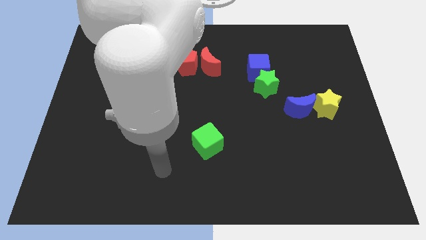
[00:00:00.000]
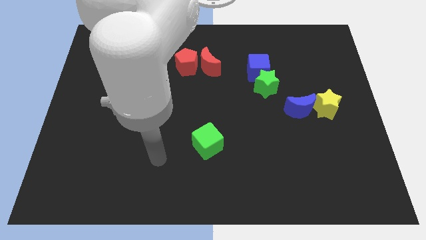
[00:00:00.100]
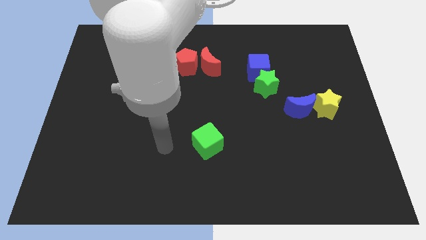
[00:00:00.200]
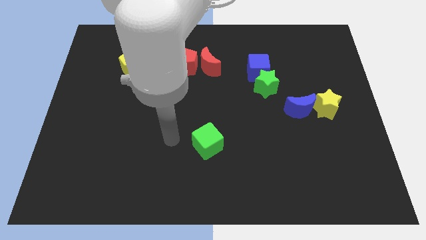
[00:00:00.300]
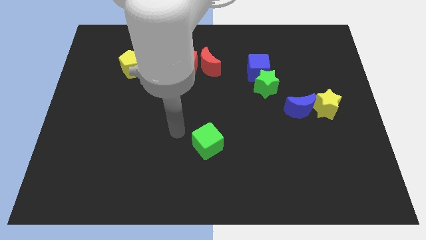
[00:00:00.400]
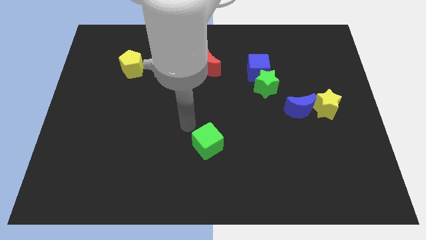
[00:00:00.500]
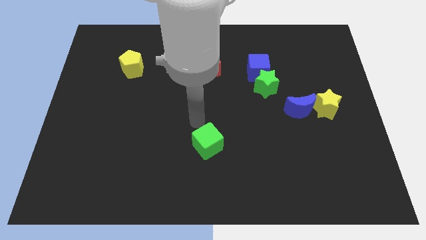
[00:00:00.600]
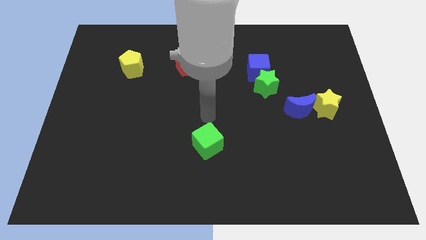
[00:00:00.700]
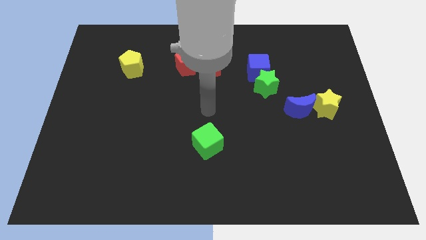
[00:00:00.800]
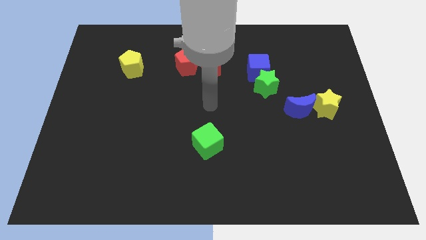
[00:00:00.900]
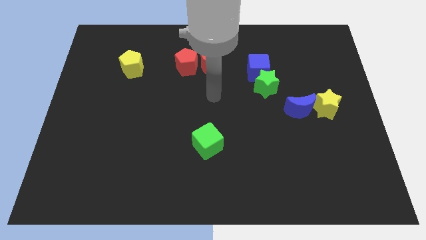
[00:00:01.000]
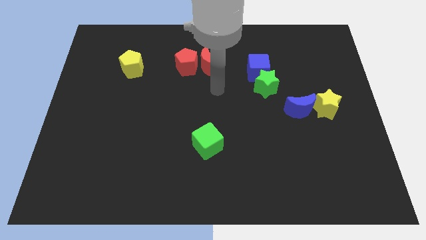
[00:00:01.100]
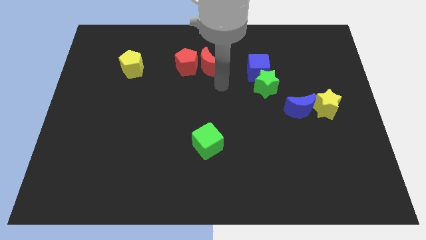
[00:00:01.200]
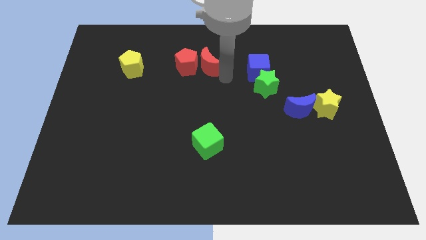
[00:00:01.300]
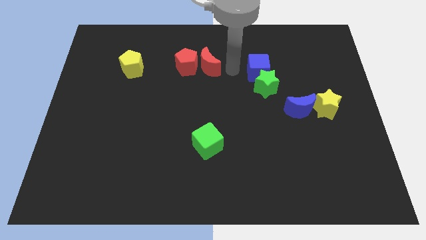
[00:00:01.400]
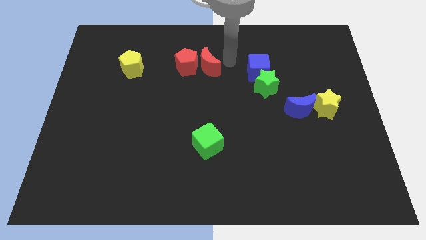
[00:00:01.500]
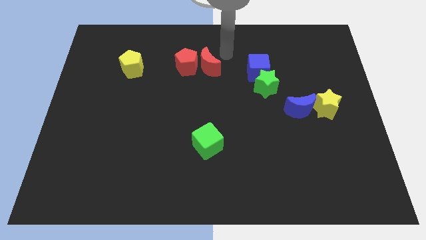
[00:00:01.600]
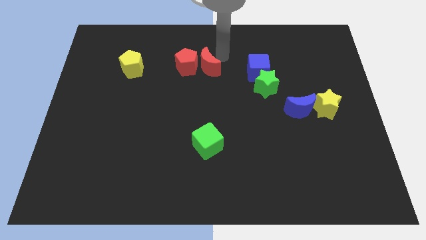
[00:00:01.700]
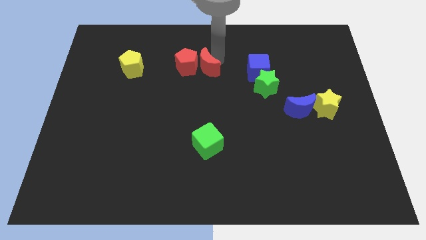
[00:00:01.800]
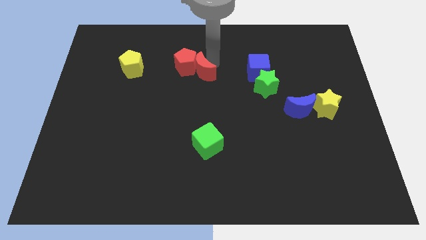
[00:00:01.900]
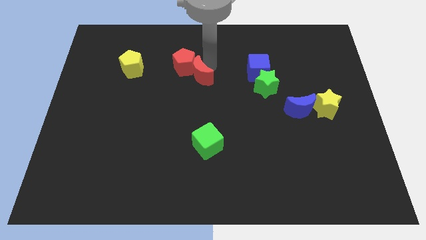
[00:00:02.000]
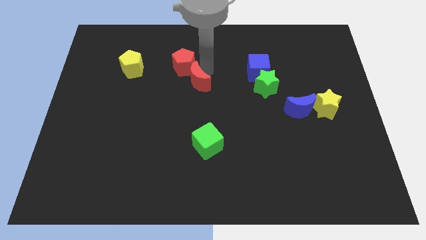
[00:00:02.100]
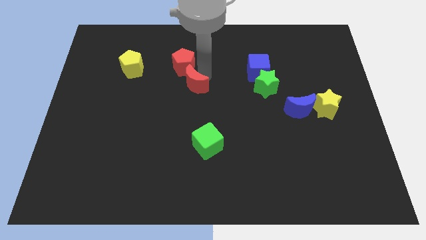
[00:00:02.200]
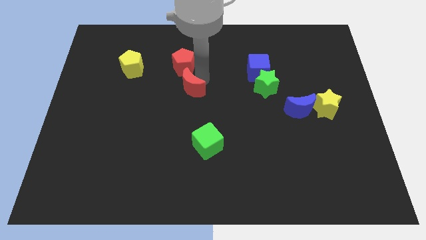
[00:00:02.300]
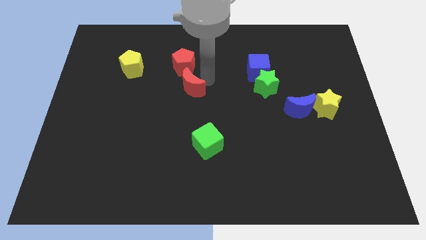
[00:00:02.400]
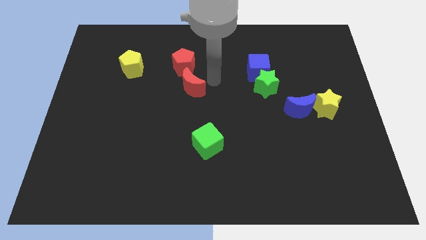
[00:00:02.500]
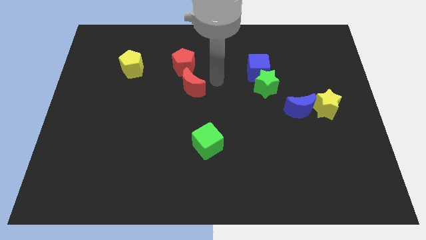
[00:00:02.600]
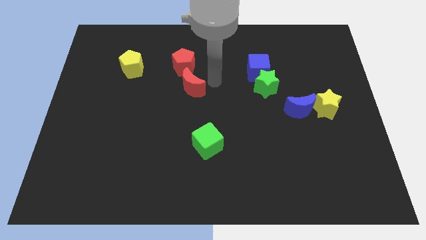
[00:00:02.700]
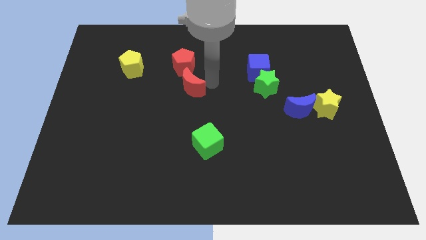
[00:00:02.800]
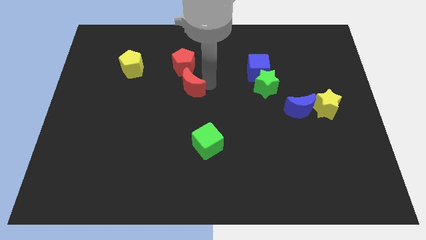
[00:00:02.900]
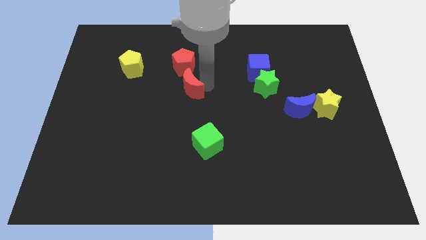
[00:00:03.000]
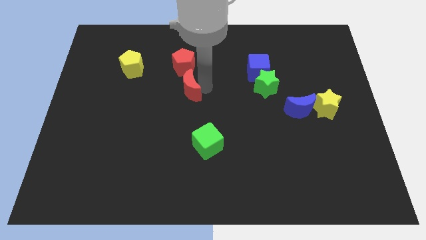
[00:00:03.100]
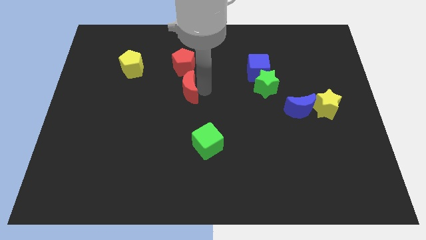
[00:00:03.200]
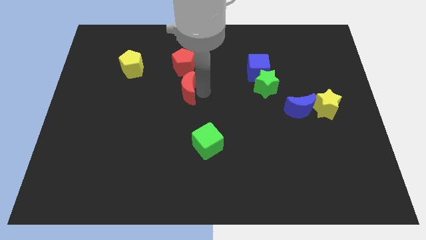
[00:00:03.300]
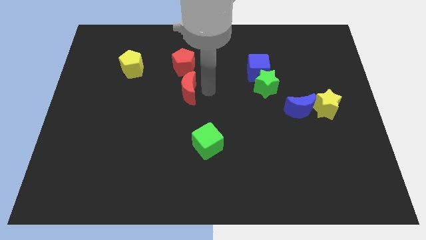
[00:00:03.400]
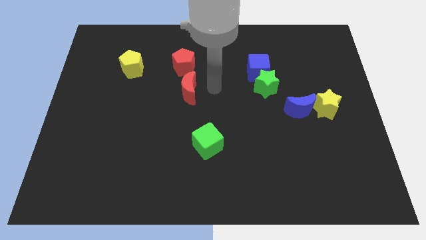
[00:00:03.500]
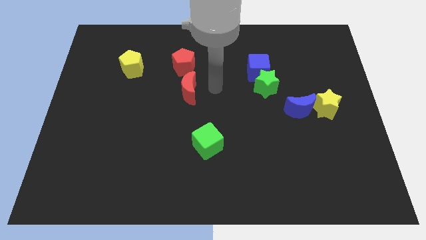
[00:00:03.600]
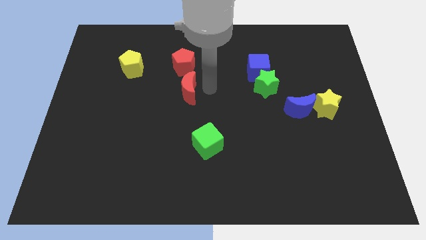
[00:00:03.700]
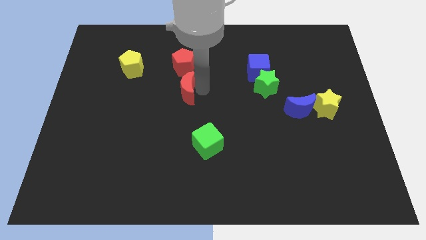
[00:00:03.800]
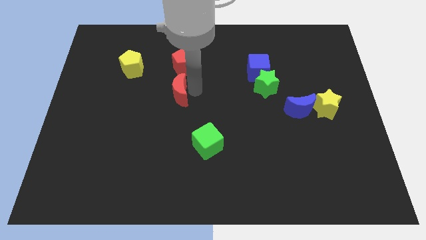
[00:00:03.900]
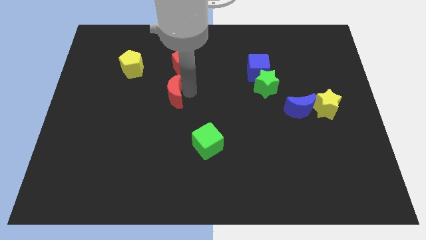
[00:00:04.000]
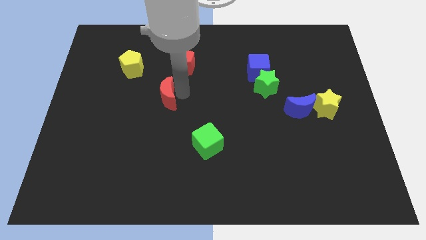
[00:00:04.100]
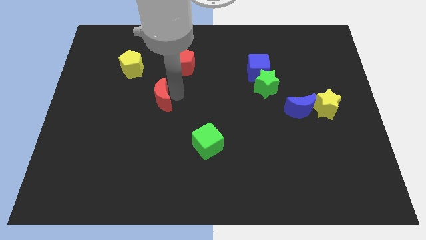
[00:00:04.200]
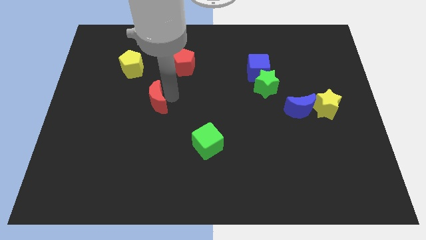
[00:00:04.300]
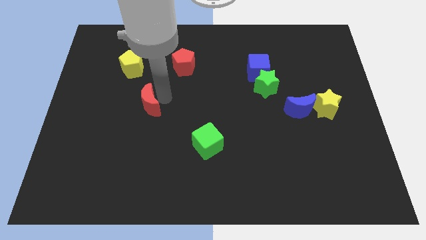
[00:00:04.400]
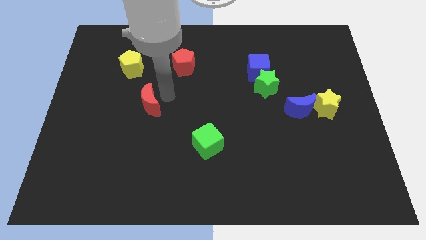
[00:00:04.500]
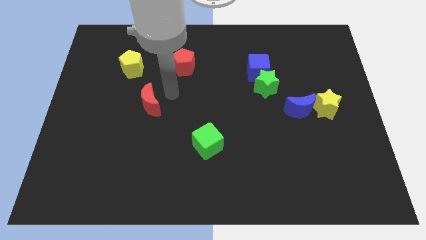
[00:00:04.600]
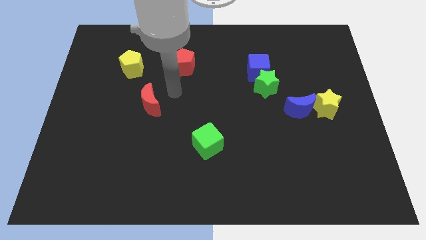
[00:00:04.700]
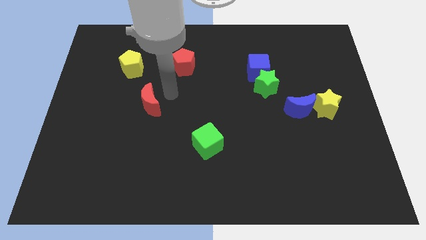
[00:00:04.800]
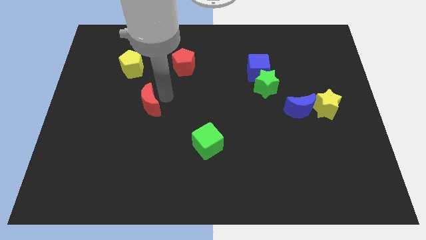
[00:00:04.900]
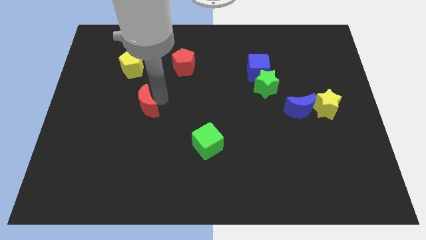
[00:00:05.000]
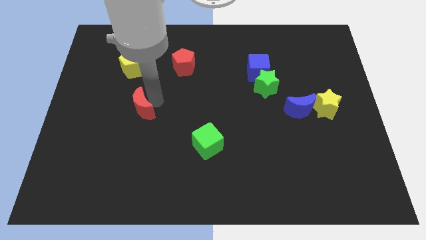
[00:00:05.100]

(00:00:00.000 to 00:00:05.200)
slide the red moon down and to the left

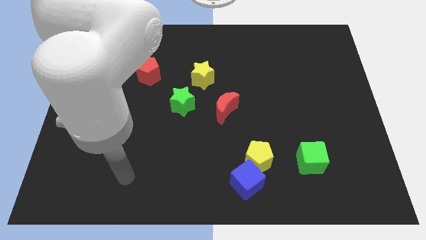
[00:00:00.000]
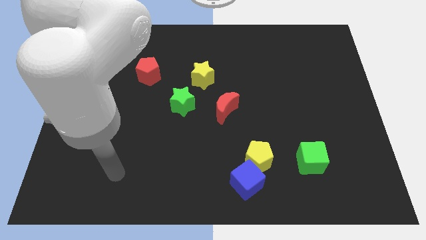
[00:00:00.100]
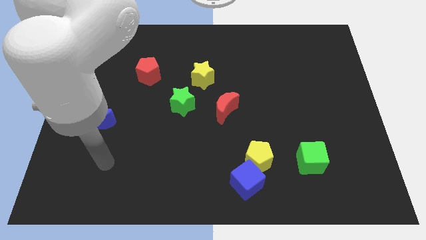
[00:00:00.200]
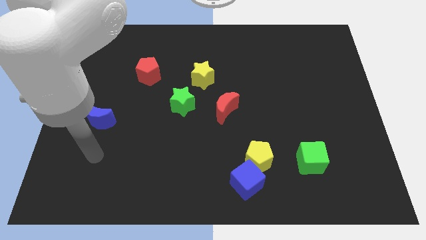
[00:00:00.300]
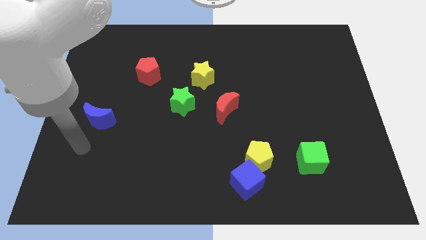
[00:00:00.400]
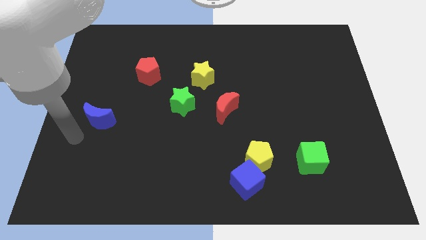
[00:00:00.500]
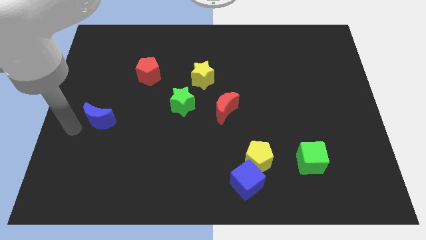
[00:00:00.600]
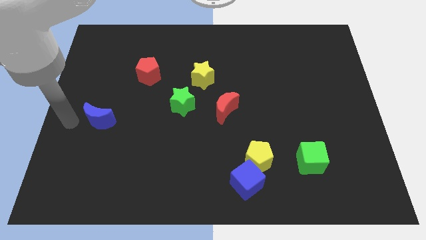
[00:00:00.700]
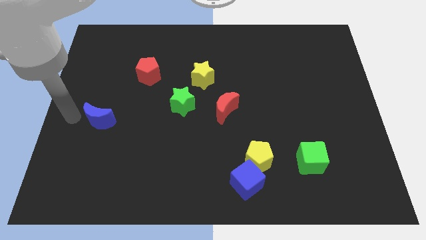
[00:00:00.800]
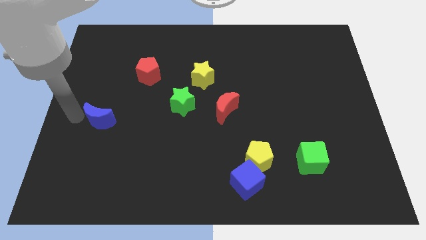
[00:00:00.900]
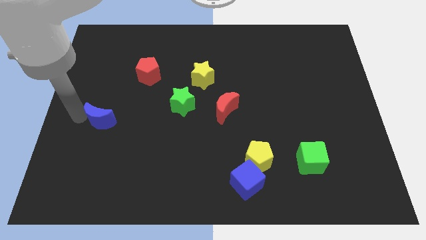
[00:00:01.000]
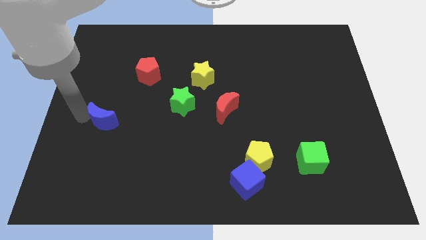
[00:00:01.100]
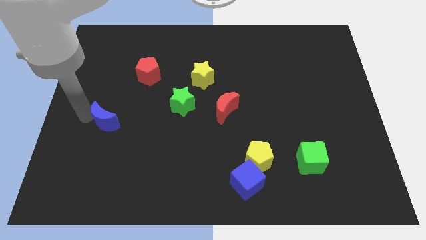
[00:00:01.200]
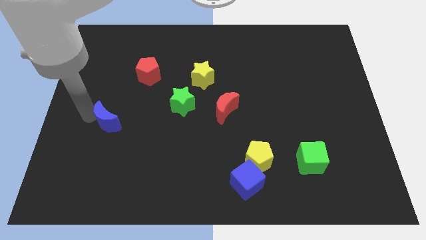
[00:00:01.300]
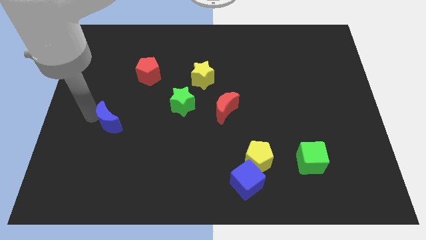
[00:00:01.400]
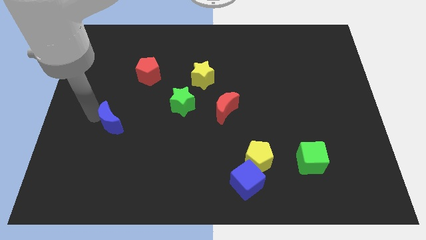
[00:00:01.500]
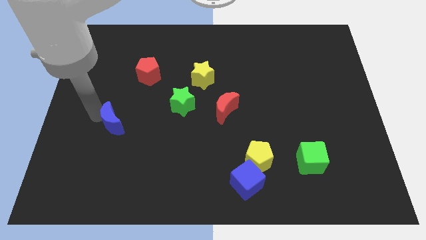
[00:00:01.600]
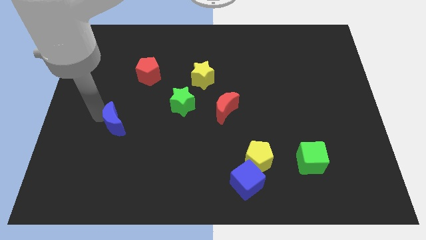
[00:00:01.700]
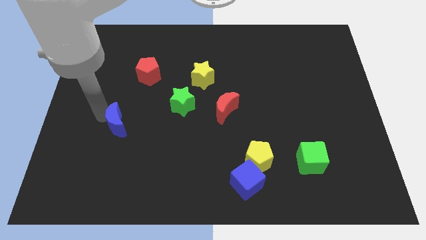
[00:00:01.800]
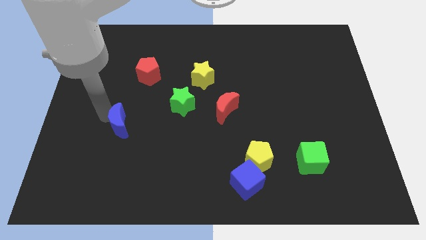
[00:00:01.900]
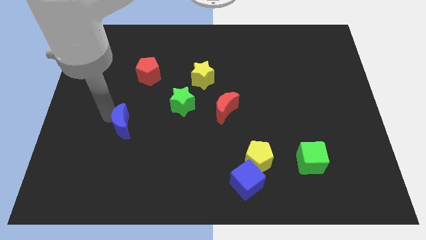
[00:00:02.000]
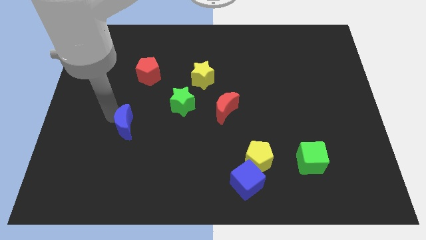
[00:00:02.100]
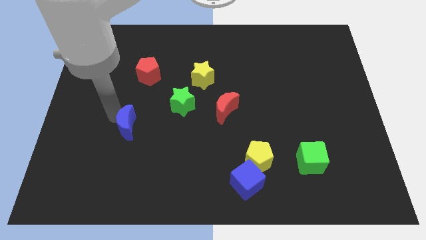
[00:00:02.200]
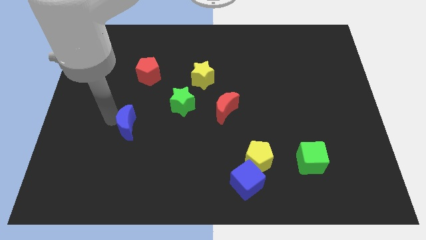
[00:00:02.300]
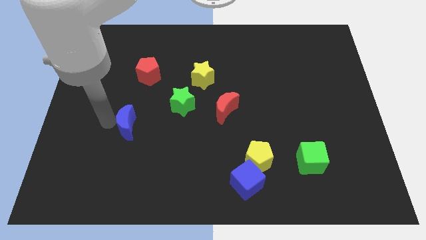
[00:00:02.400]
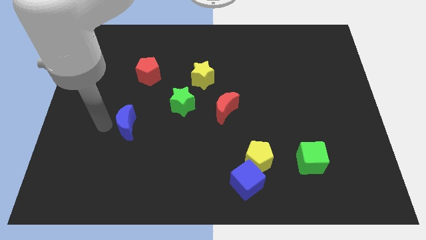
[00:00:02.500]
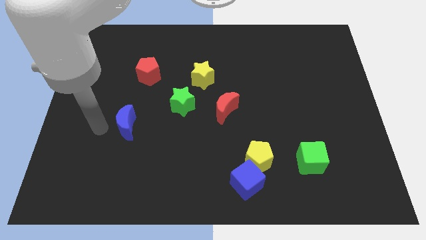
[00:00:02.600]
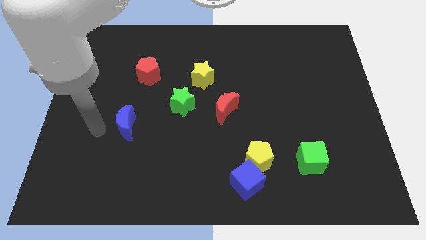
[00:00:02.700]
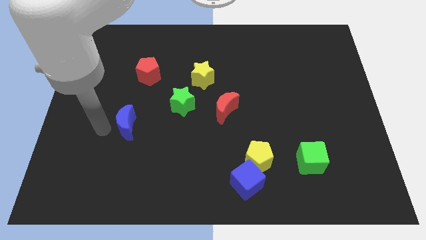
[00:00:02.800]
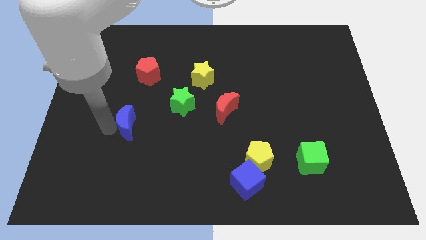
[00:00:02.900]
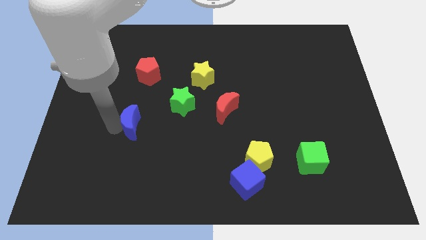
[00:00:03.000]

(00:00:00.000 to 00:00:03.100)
slightly slide the blue moon right
